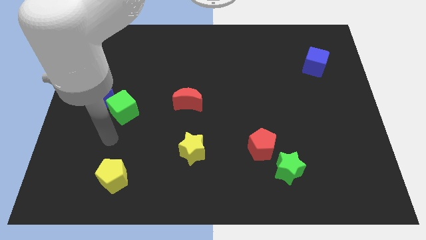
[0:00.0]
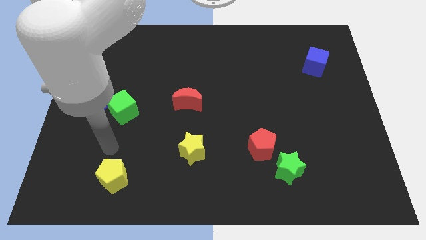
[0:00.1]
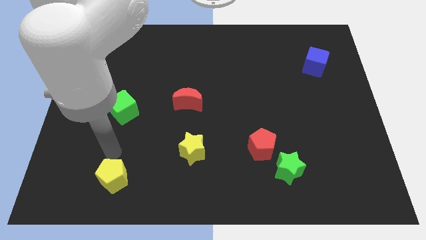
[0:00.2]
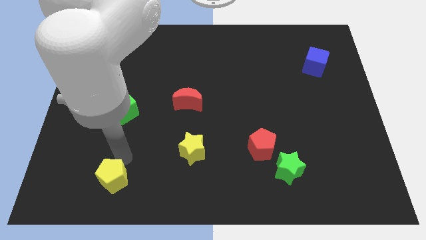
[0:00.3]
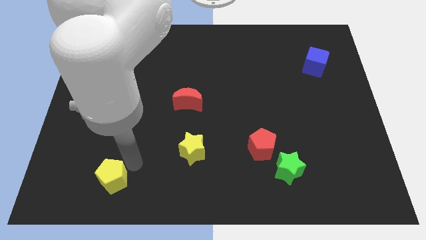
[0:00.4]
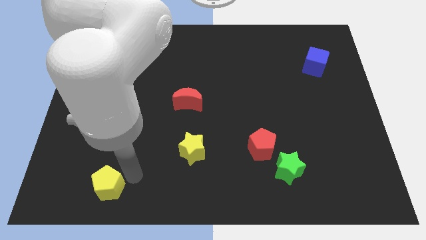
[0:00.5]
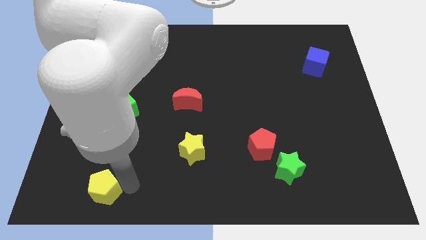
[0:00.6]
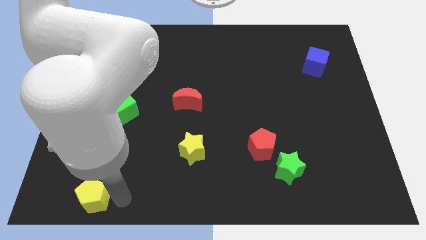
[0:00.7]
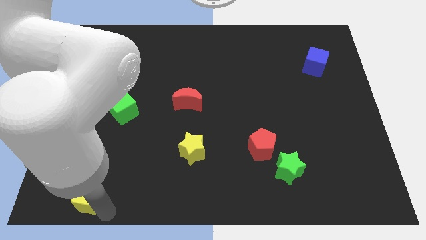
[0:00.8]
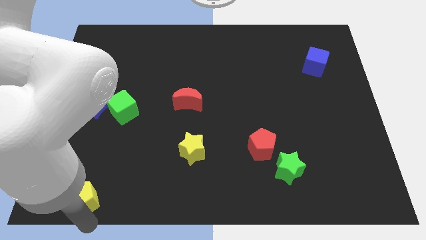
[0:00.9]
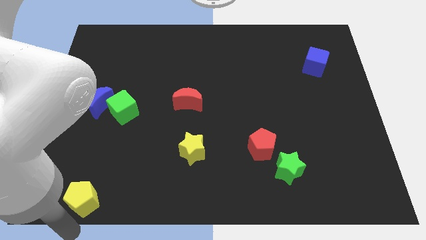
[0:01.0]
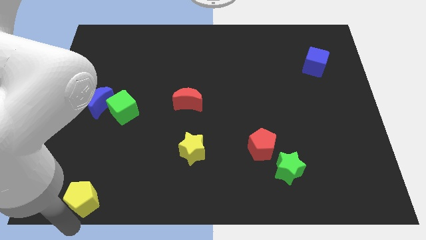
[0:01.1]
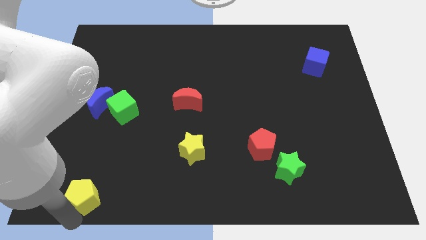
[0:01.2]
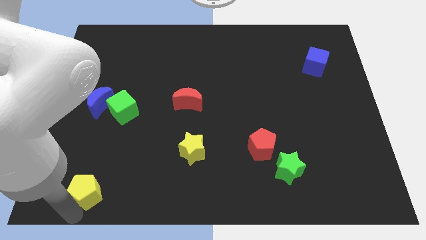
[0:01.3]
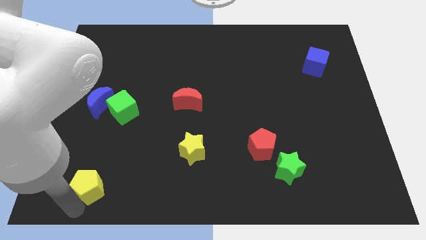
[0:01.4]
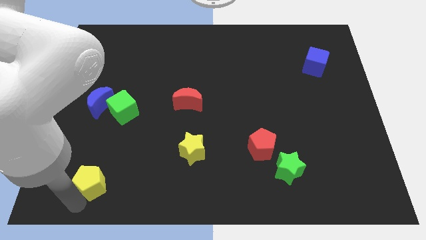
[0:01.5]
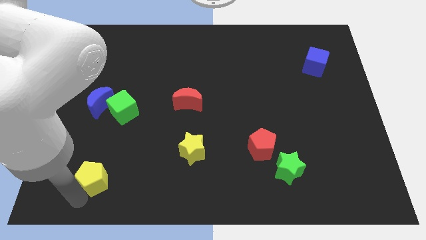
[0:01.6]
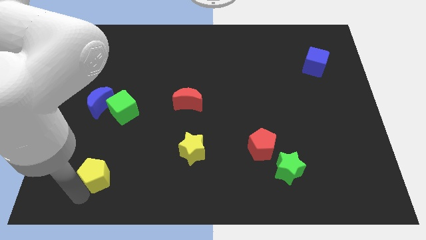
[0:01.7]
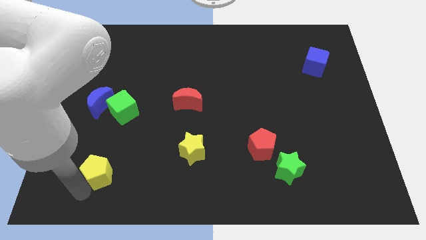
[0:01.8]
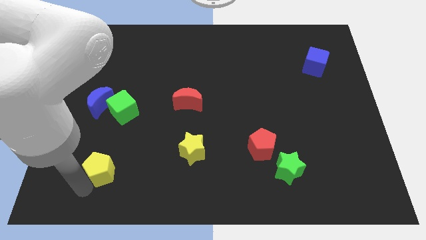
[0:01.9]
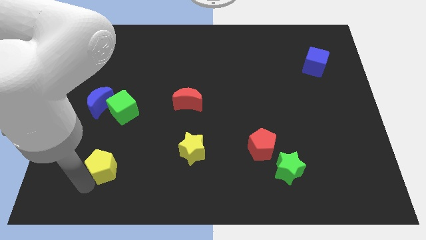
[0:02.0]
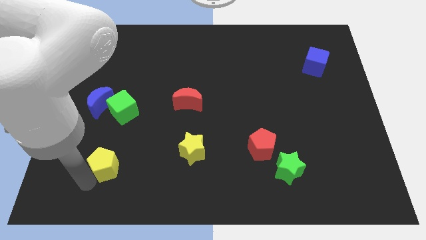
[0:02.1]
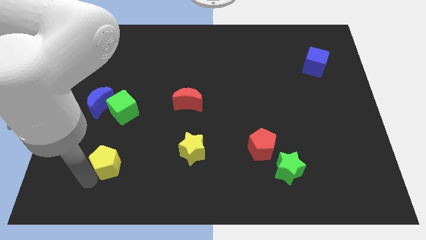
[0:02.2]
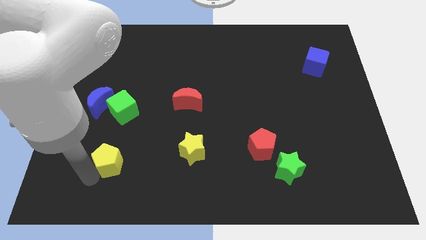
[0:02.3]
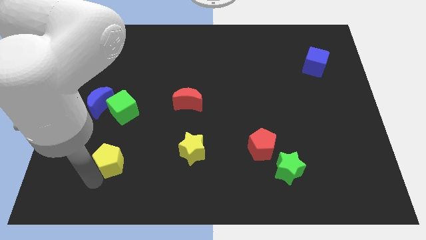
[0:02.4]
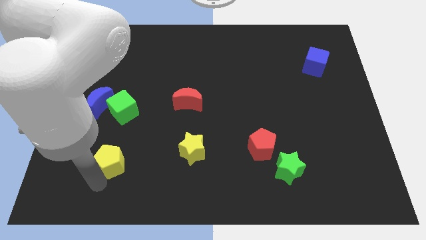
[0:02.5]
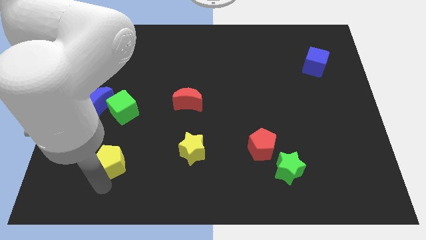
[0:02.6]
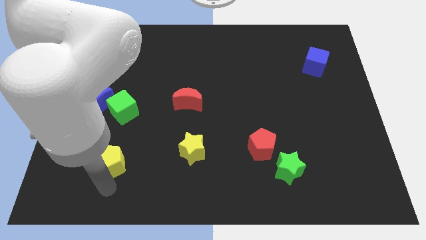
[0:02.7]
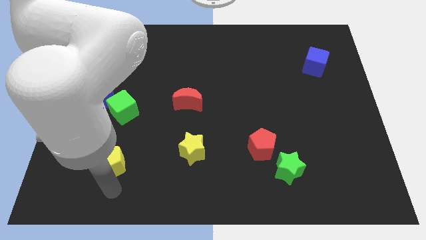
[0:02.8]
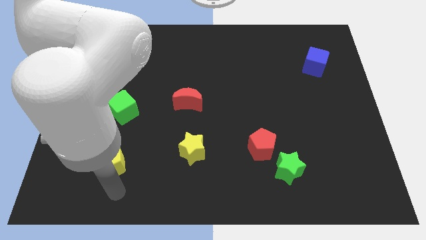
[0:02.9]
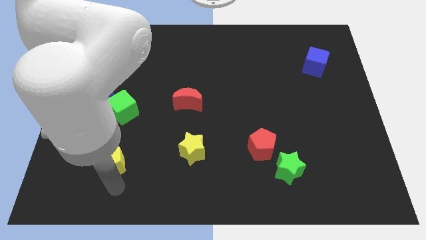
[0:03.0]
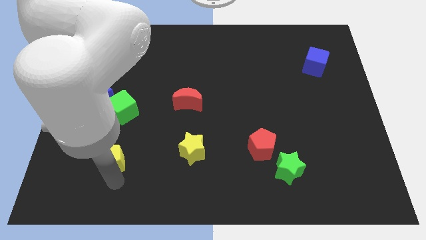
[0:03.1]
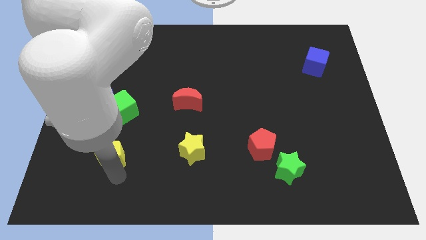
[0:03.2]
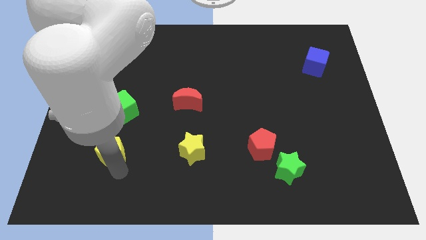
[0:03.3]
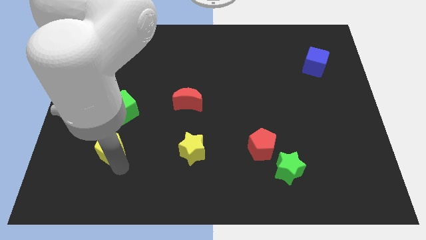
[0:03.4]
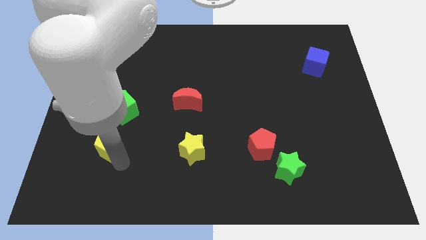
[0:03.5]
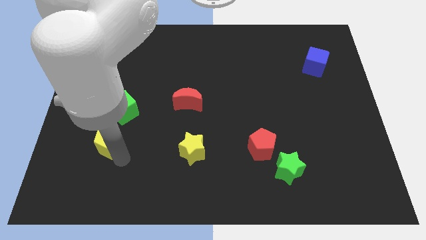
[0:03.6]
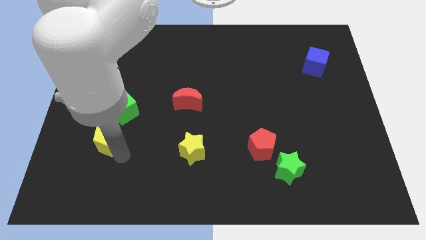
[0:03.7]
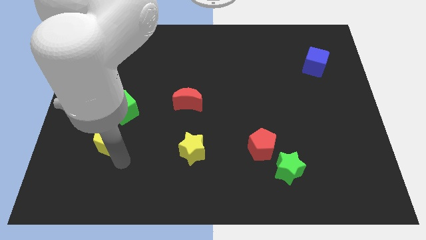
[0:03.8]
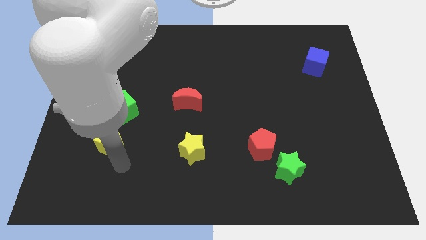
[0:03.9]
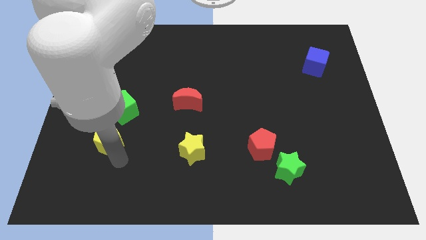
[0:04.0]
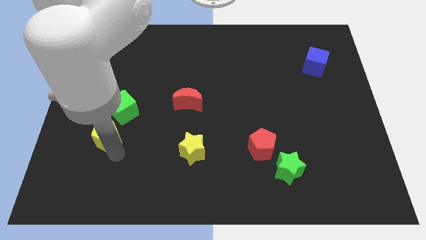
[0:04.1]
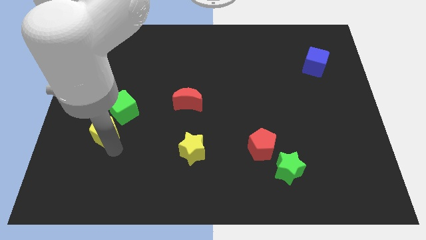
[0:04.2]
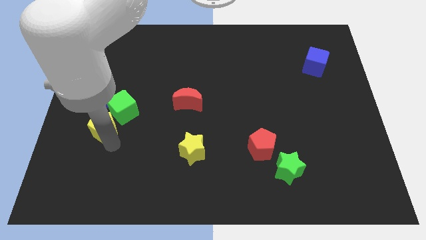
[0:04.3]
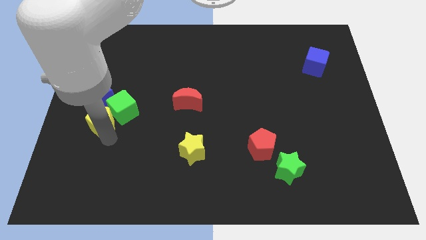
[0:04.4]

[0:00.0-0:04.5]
slide the yellow pentagon to the blue moon

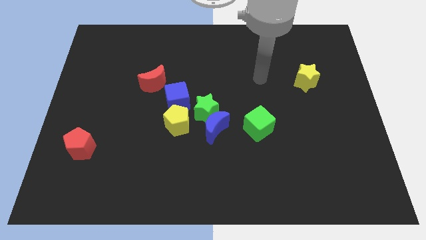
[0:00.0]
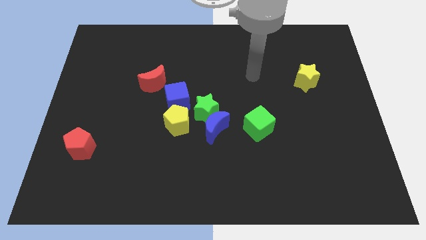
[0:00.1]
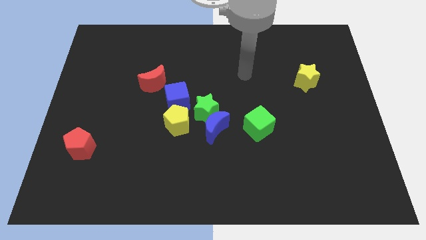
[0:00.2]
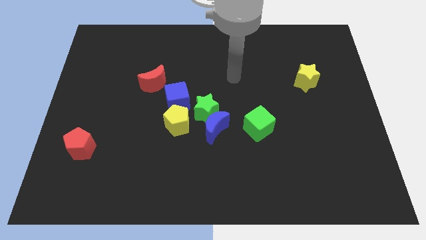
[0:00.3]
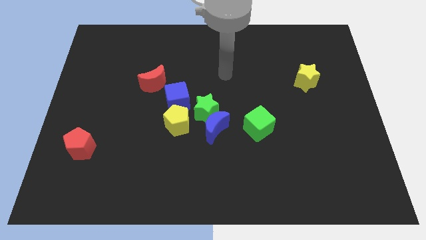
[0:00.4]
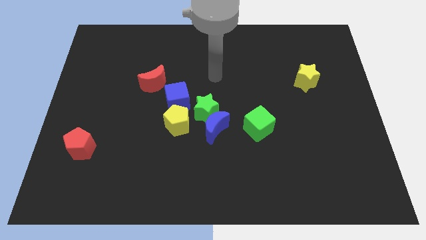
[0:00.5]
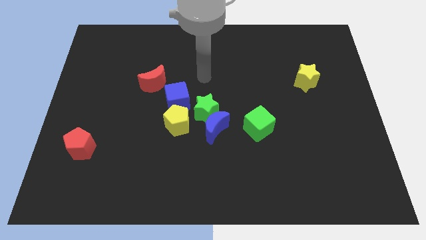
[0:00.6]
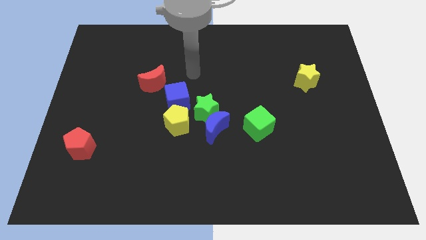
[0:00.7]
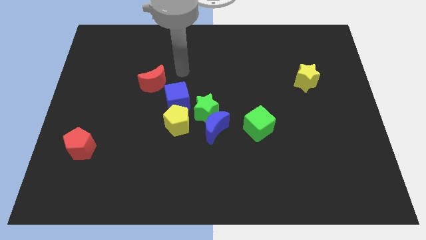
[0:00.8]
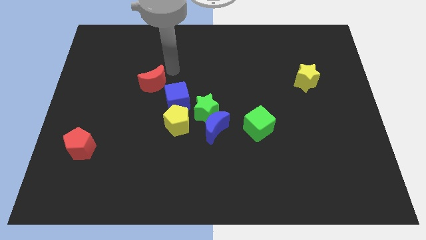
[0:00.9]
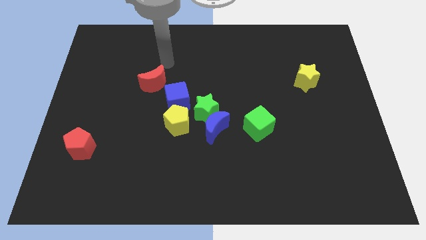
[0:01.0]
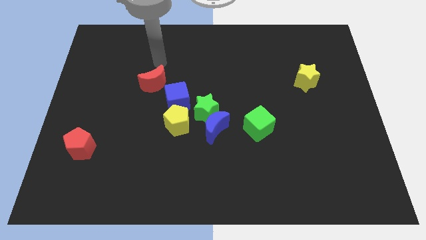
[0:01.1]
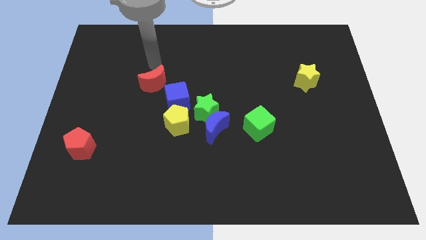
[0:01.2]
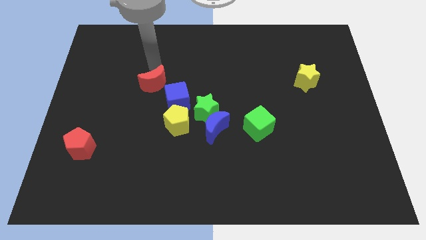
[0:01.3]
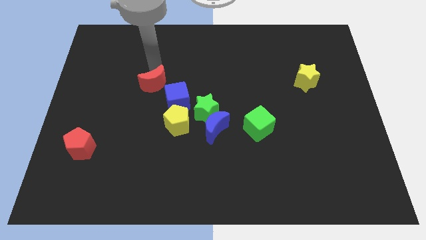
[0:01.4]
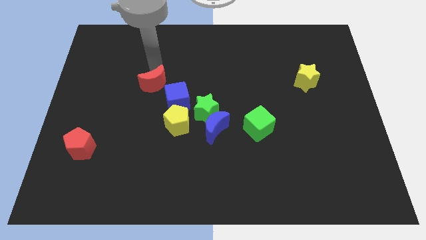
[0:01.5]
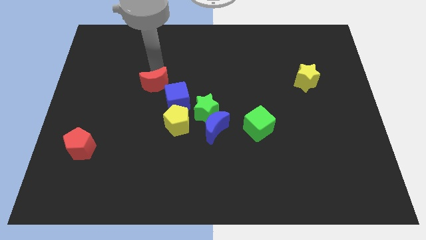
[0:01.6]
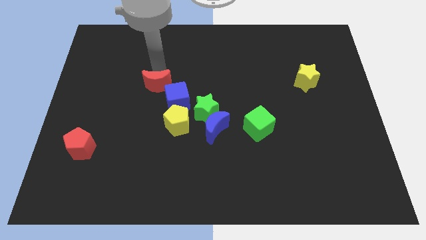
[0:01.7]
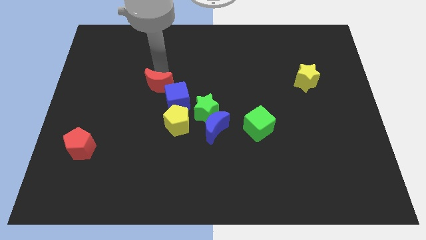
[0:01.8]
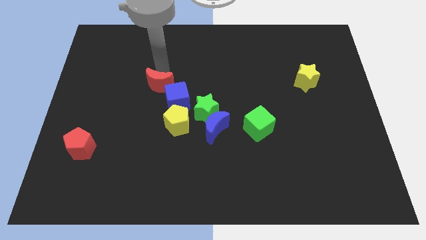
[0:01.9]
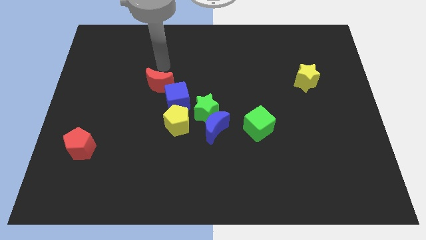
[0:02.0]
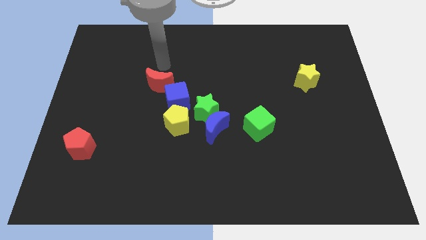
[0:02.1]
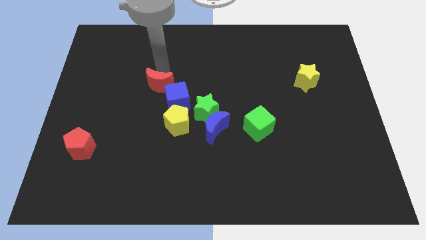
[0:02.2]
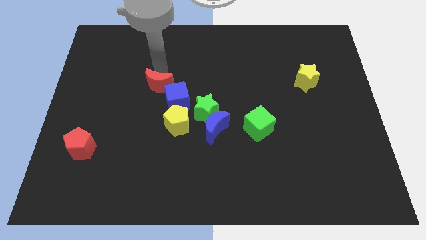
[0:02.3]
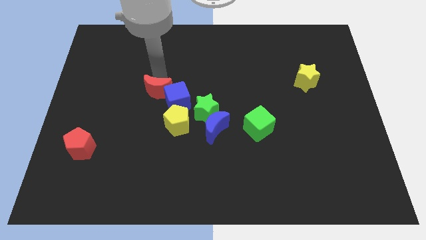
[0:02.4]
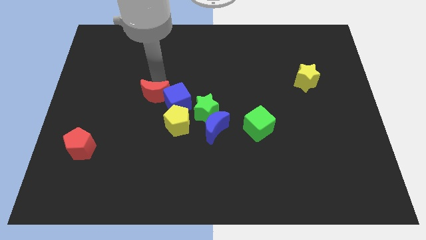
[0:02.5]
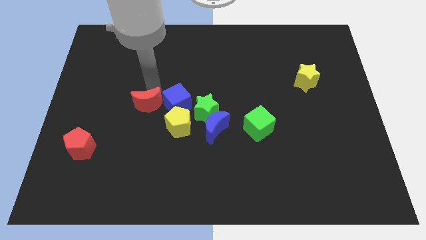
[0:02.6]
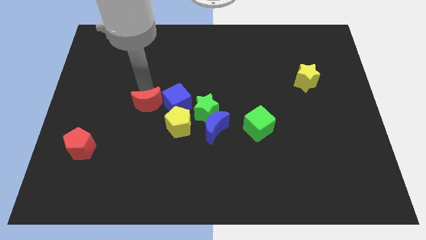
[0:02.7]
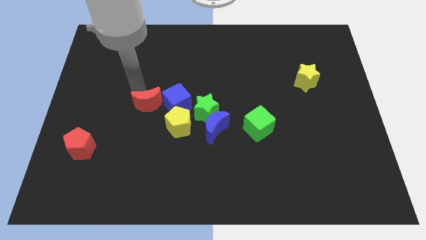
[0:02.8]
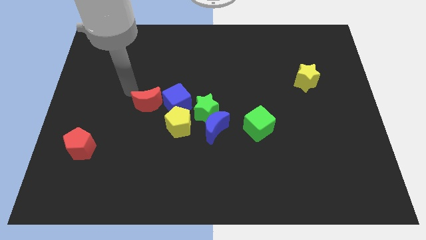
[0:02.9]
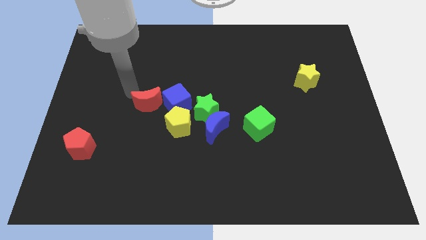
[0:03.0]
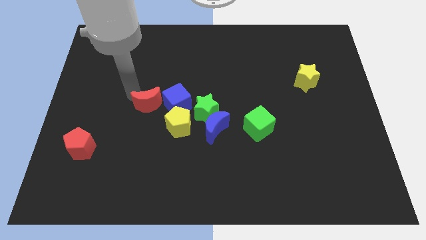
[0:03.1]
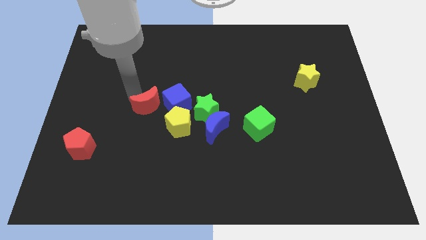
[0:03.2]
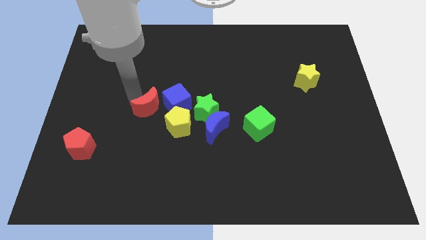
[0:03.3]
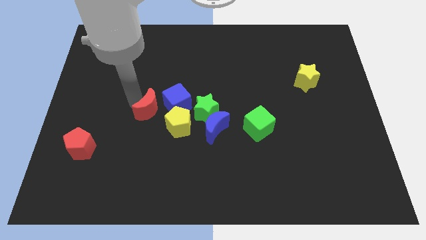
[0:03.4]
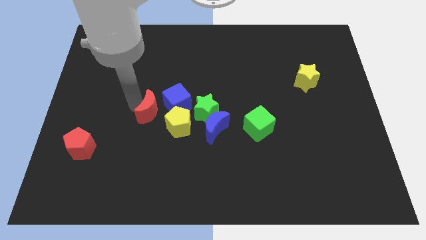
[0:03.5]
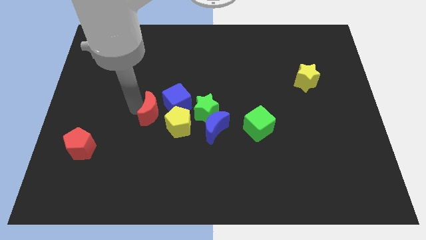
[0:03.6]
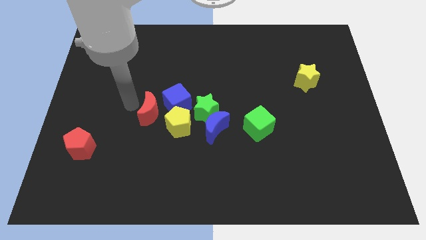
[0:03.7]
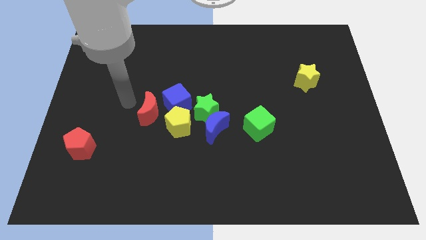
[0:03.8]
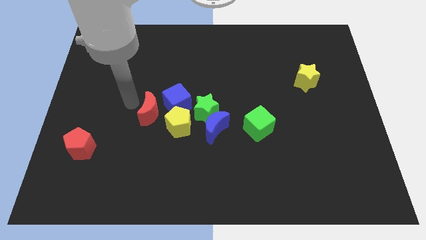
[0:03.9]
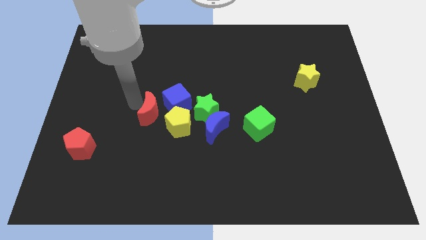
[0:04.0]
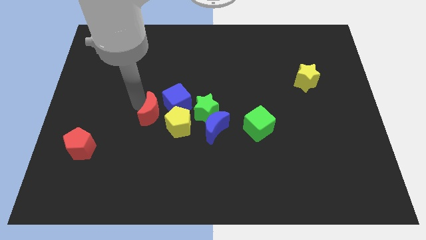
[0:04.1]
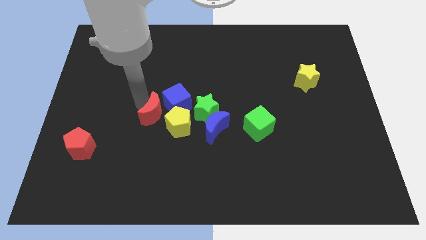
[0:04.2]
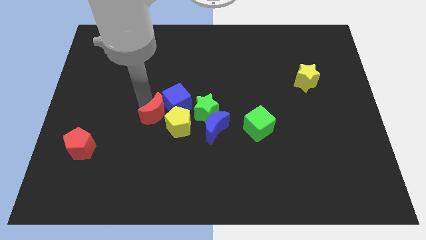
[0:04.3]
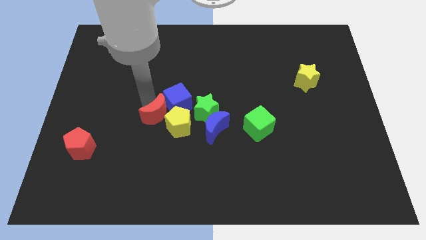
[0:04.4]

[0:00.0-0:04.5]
move the red moon towards the yellow pentagon
